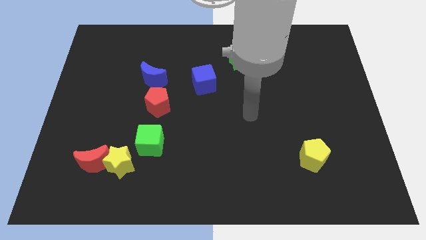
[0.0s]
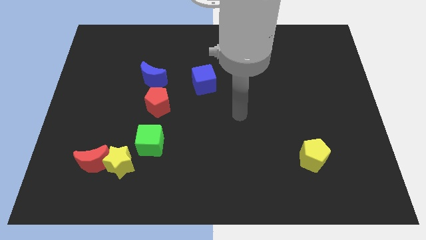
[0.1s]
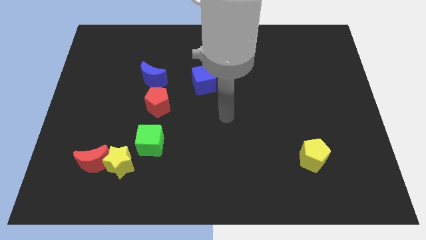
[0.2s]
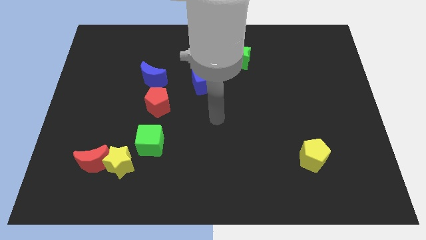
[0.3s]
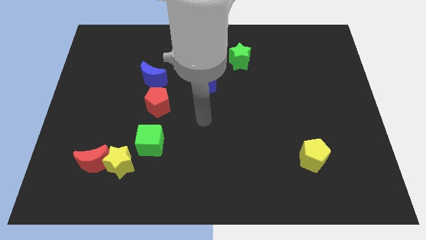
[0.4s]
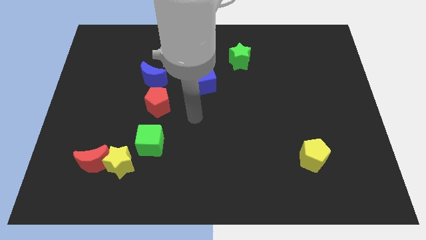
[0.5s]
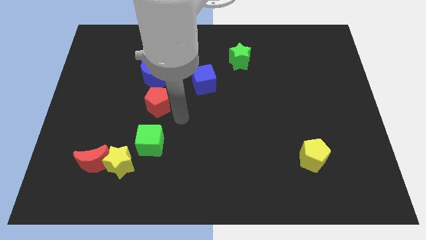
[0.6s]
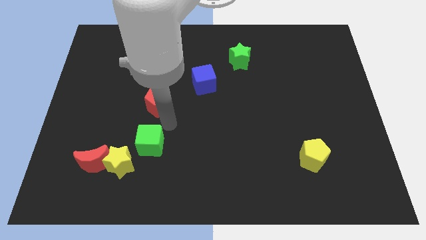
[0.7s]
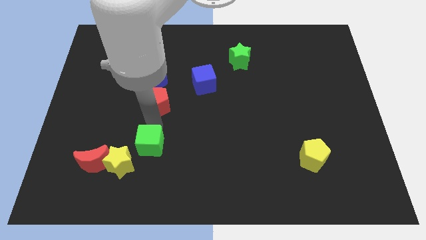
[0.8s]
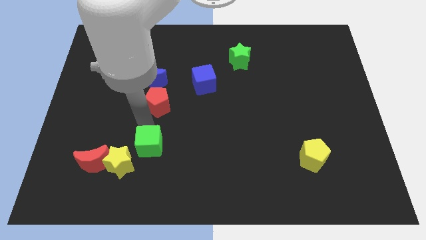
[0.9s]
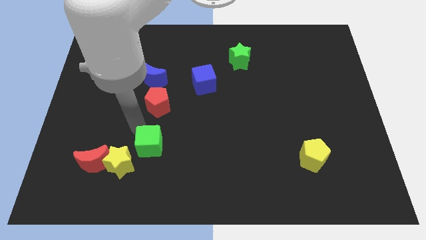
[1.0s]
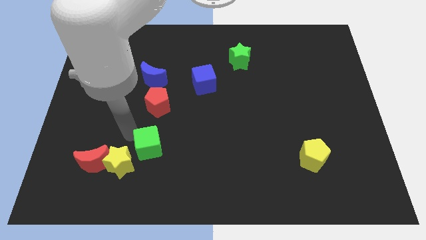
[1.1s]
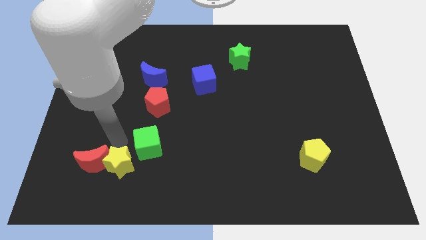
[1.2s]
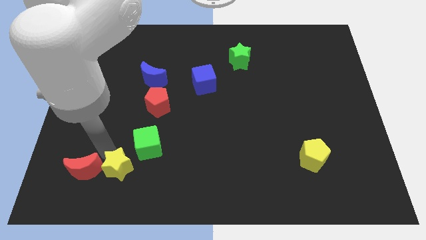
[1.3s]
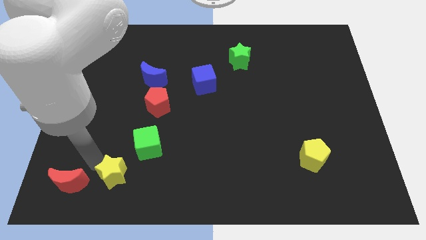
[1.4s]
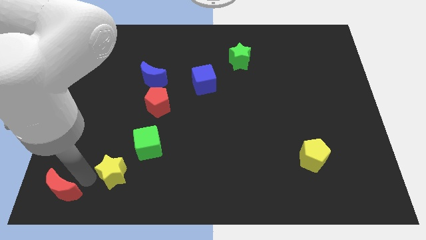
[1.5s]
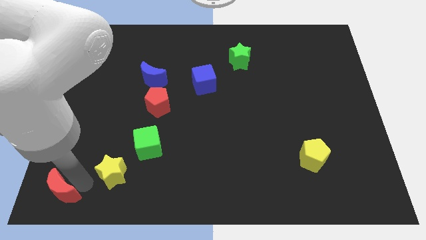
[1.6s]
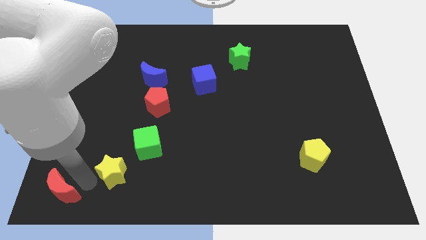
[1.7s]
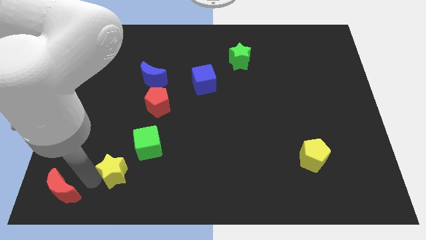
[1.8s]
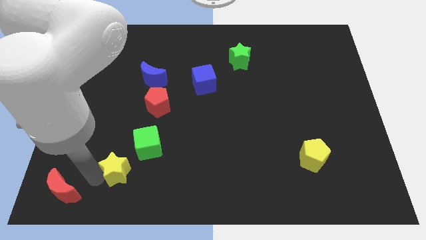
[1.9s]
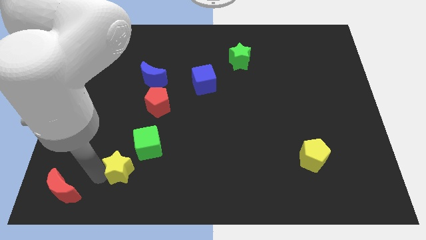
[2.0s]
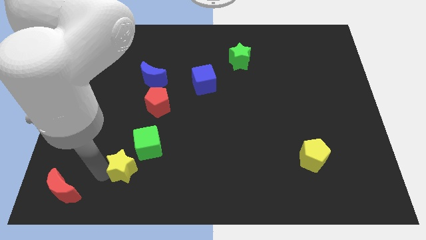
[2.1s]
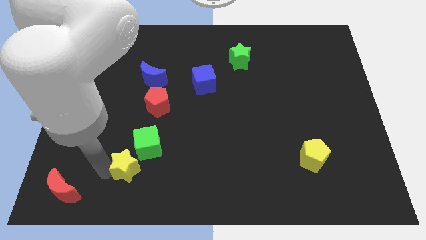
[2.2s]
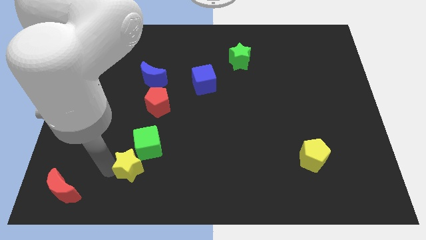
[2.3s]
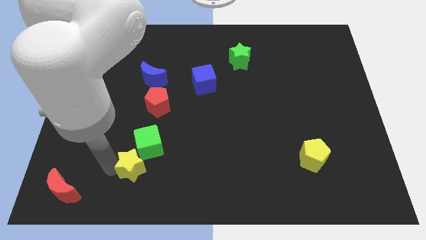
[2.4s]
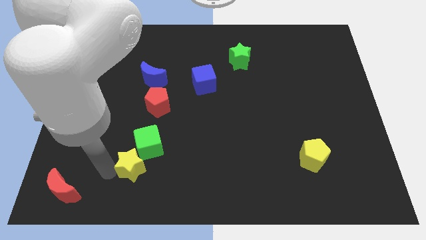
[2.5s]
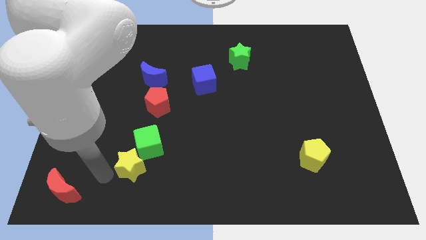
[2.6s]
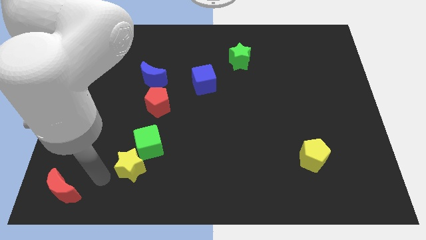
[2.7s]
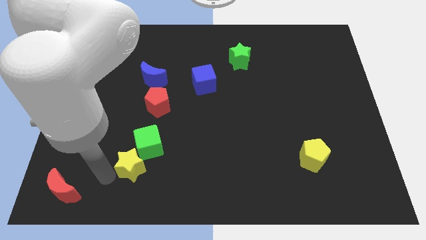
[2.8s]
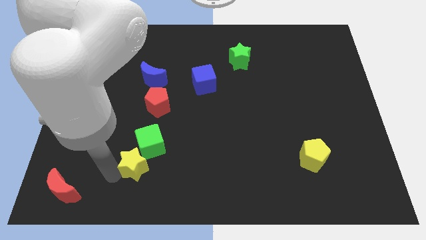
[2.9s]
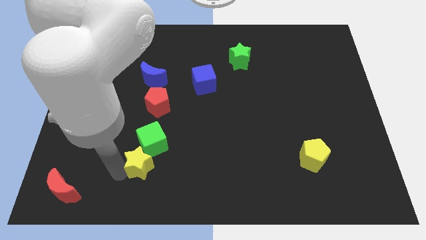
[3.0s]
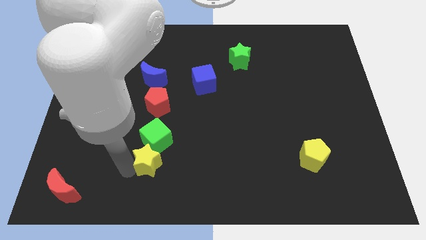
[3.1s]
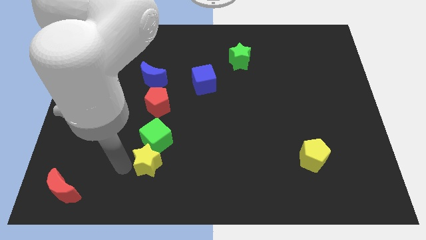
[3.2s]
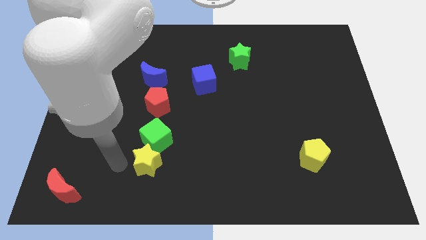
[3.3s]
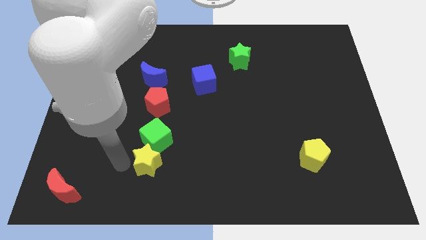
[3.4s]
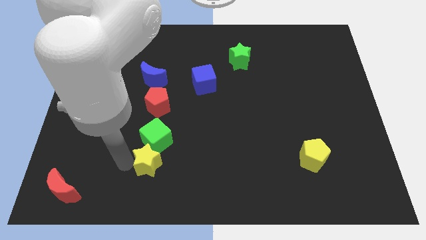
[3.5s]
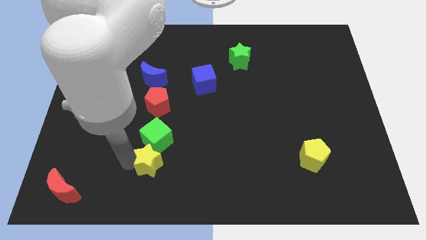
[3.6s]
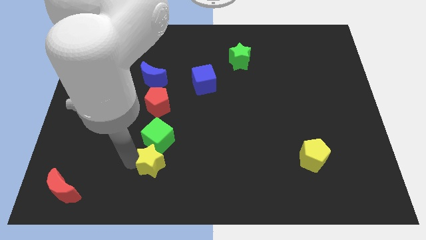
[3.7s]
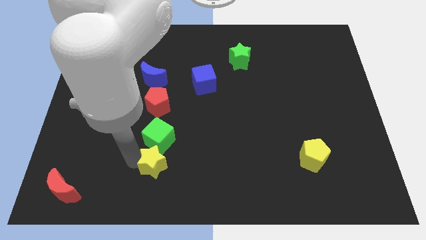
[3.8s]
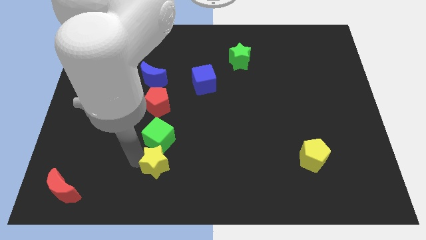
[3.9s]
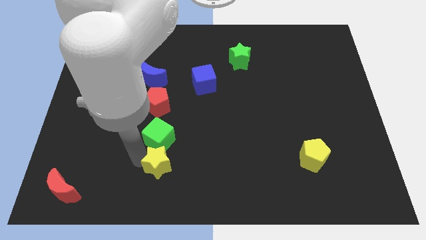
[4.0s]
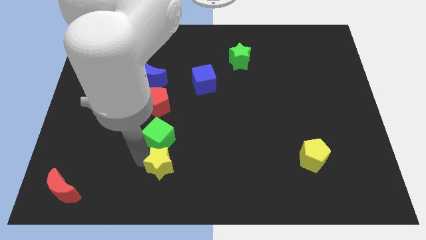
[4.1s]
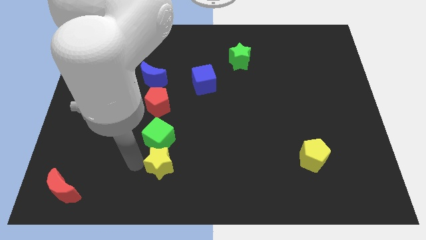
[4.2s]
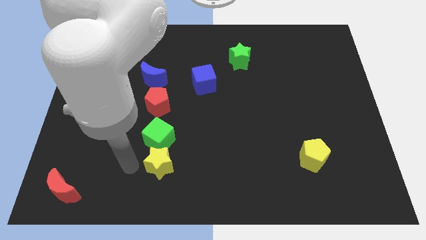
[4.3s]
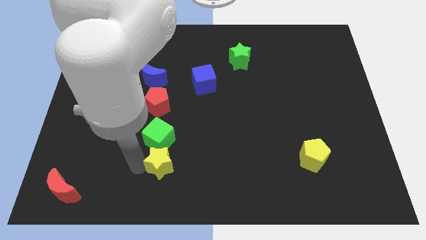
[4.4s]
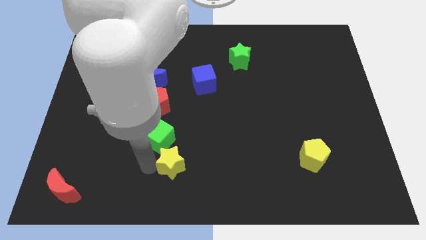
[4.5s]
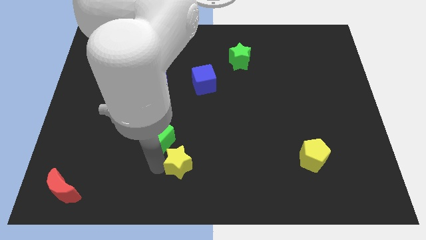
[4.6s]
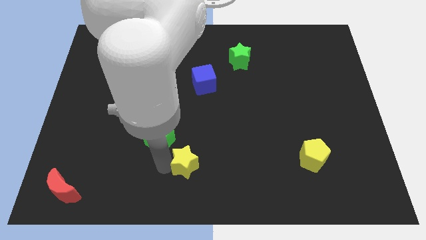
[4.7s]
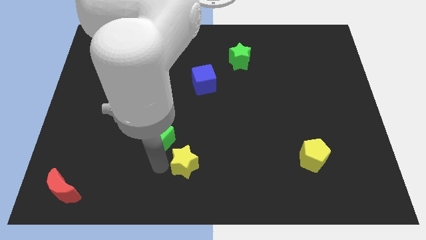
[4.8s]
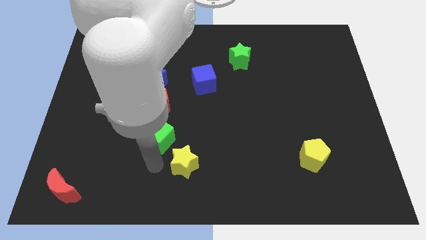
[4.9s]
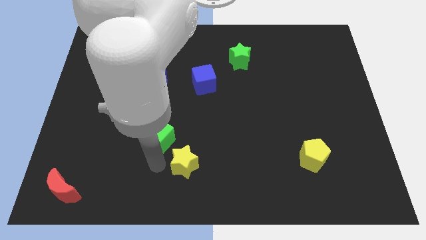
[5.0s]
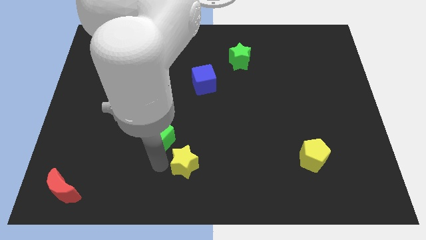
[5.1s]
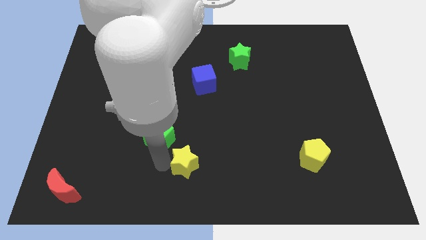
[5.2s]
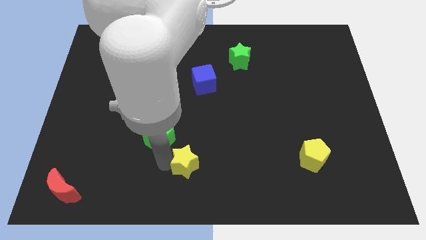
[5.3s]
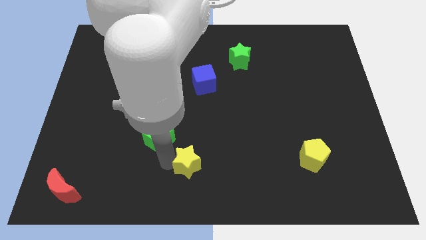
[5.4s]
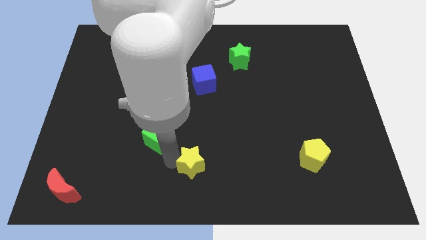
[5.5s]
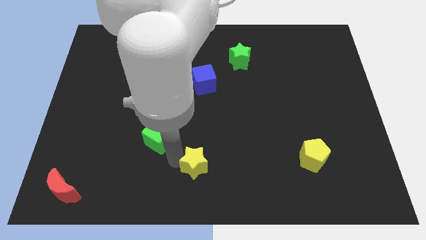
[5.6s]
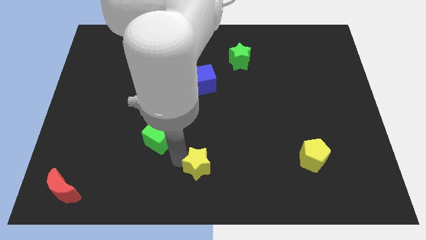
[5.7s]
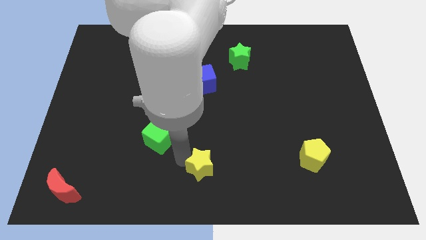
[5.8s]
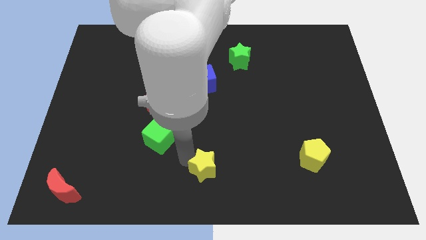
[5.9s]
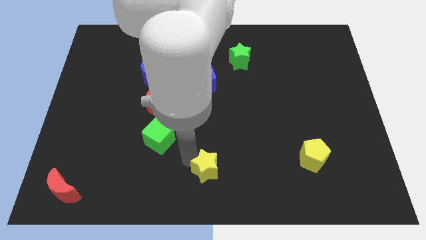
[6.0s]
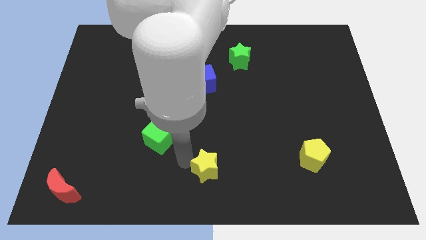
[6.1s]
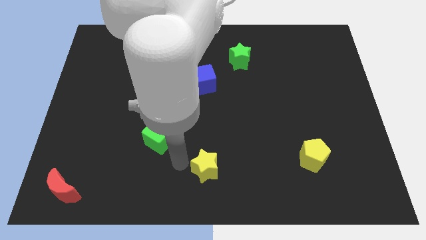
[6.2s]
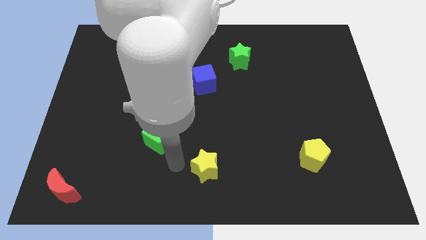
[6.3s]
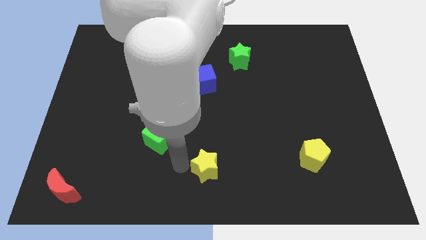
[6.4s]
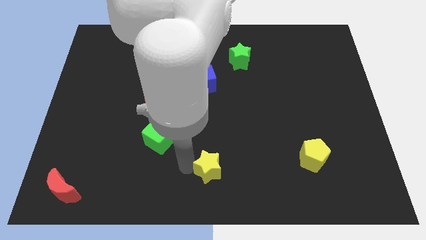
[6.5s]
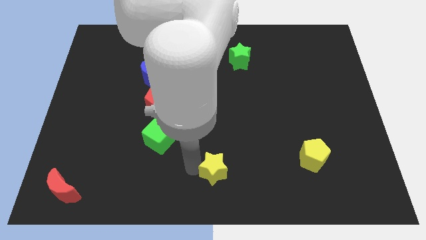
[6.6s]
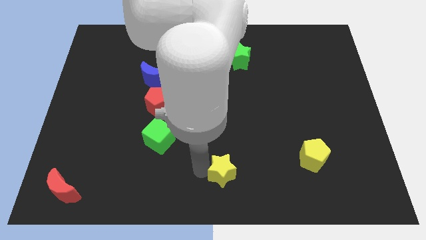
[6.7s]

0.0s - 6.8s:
move the yellow star right

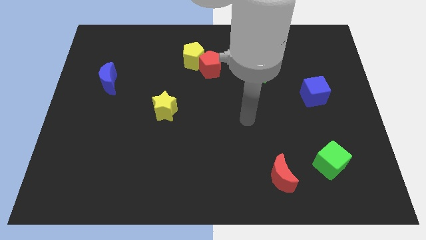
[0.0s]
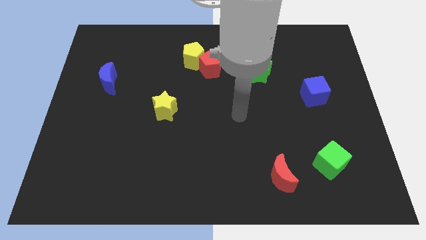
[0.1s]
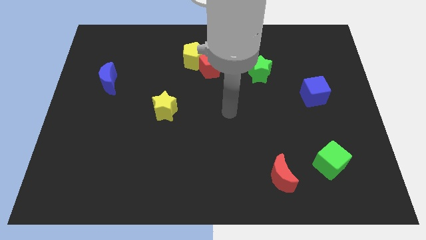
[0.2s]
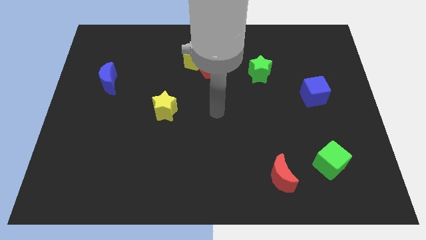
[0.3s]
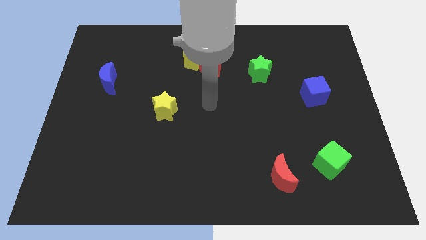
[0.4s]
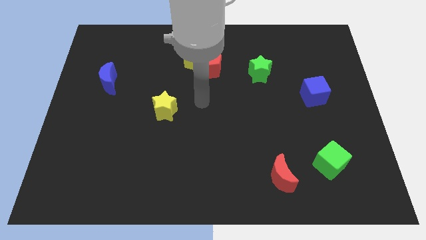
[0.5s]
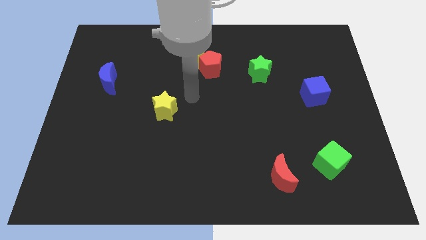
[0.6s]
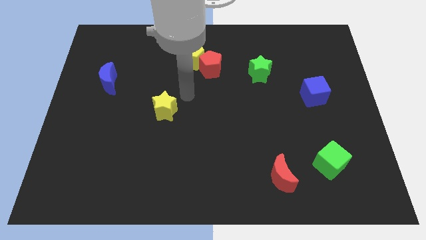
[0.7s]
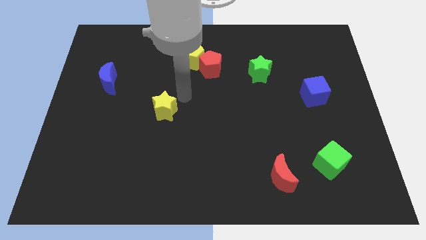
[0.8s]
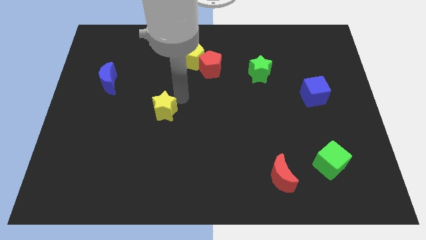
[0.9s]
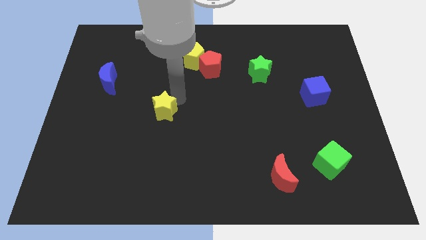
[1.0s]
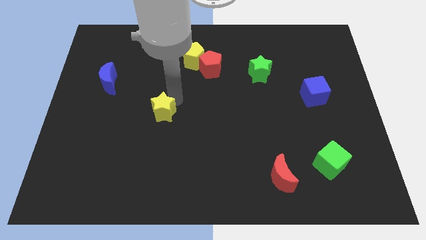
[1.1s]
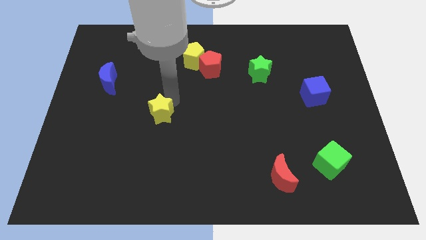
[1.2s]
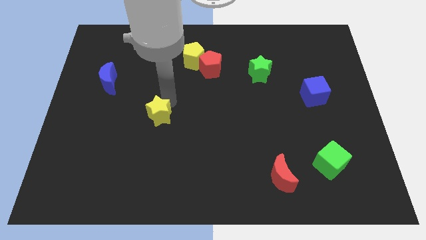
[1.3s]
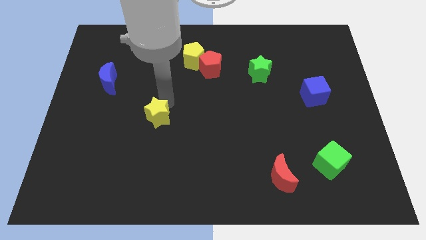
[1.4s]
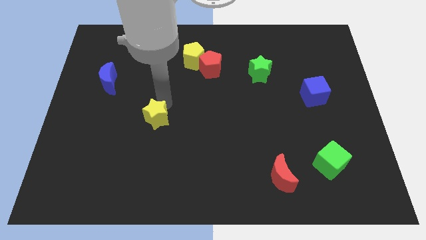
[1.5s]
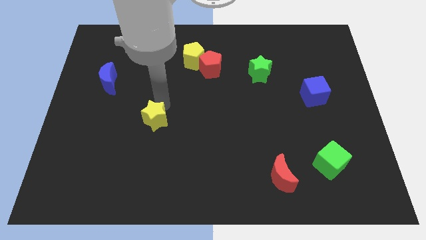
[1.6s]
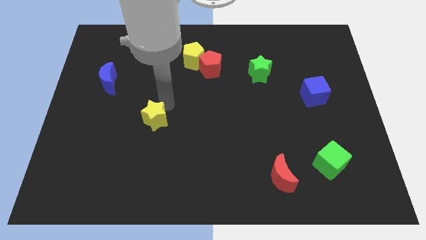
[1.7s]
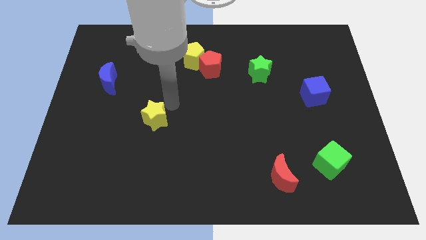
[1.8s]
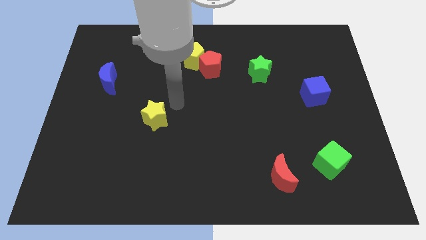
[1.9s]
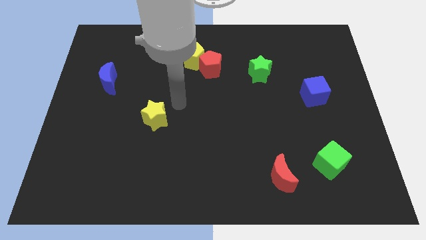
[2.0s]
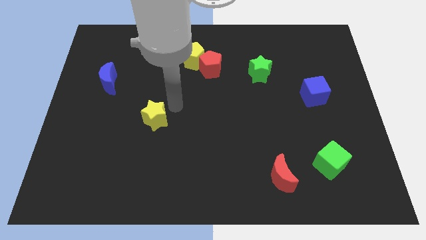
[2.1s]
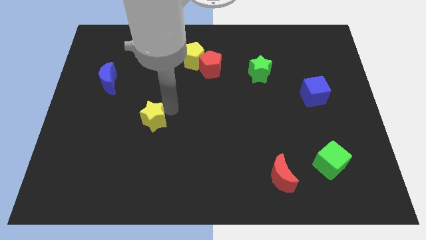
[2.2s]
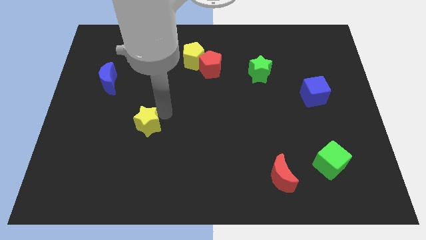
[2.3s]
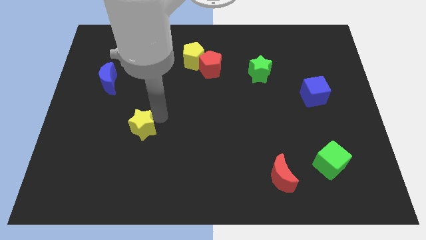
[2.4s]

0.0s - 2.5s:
slightly slide the yellow star down and left diagonally
